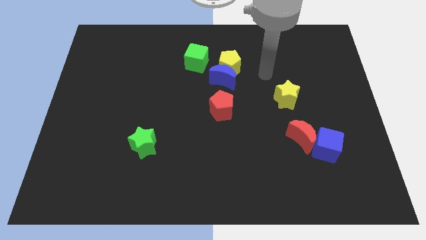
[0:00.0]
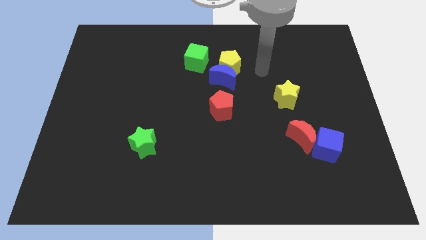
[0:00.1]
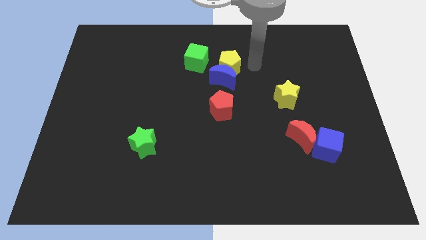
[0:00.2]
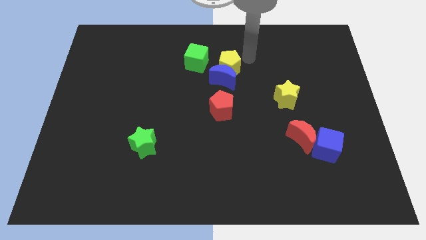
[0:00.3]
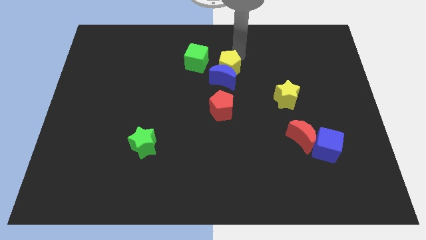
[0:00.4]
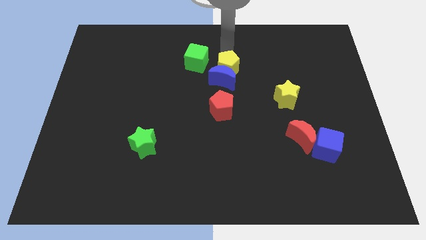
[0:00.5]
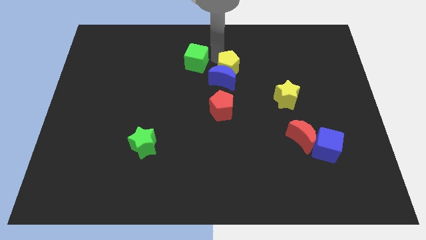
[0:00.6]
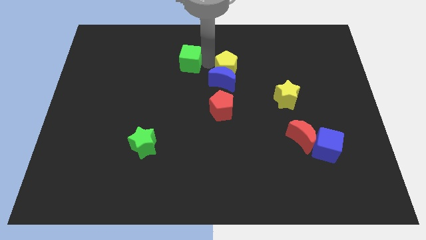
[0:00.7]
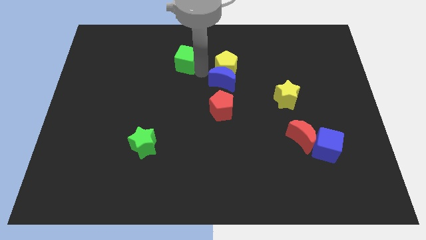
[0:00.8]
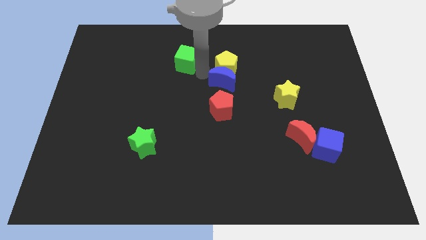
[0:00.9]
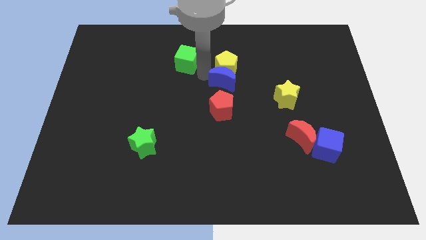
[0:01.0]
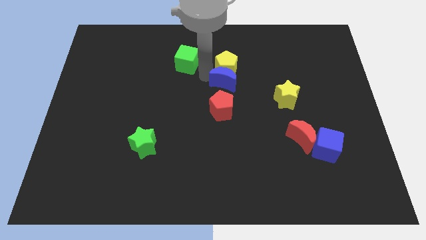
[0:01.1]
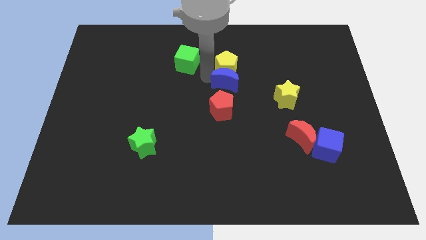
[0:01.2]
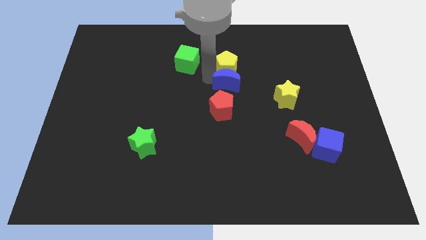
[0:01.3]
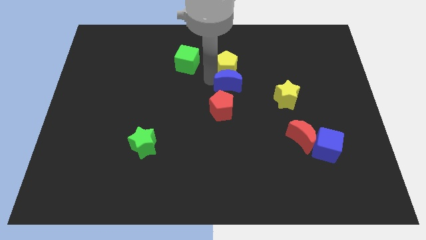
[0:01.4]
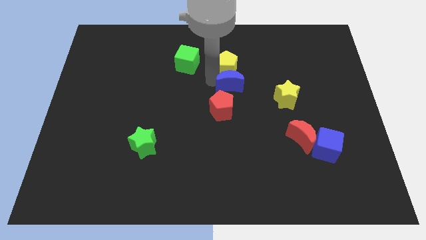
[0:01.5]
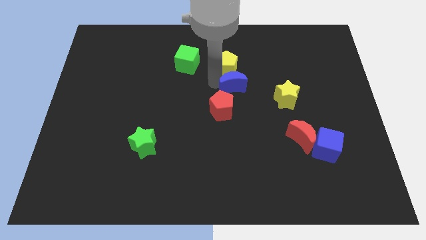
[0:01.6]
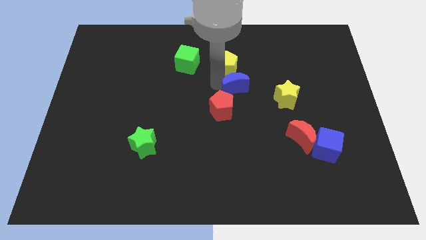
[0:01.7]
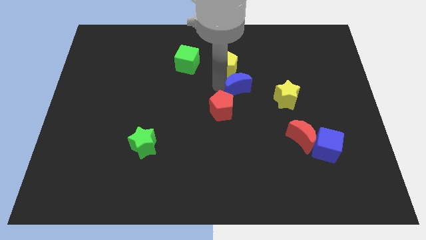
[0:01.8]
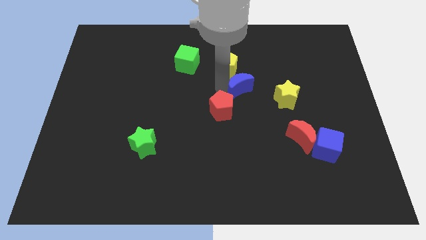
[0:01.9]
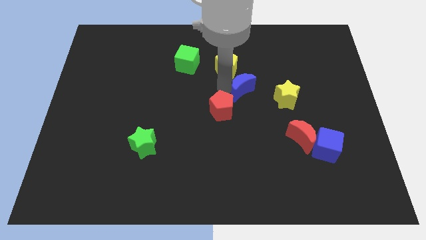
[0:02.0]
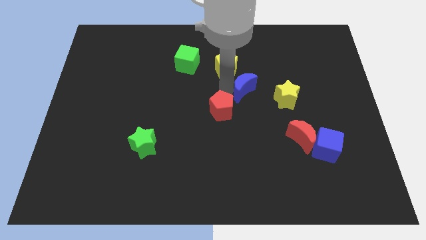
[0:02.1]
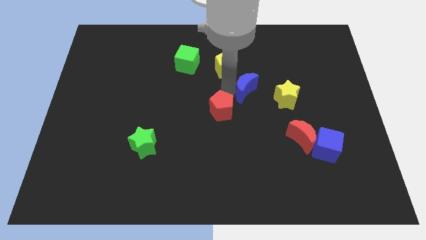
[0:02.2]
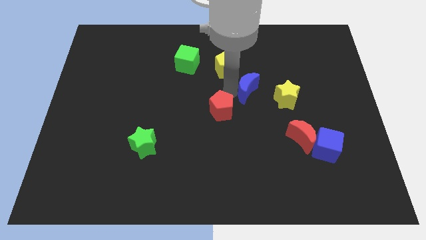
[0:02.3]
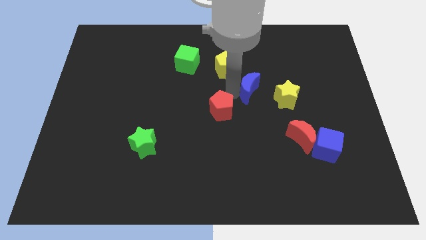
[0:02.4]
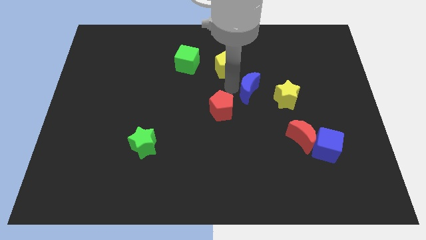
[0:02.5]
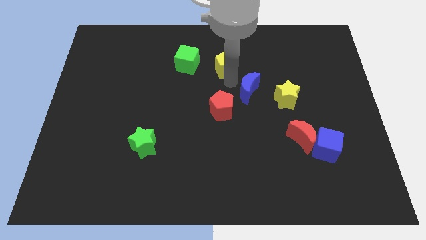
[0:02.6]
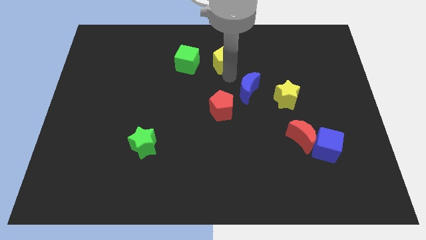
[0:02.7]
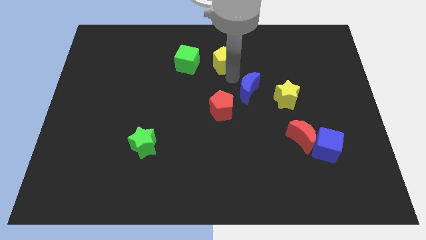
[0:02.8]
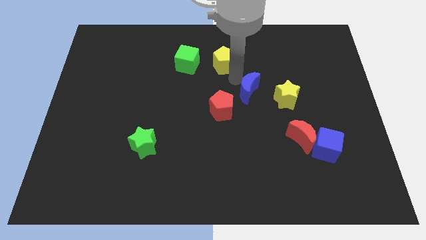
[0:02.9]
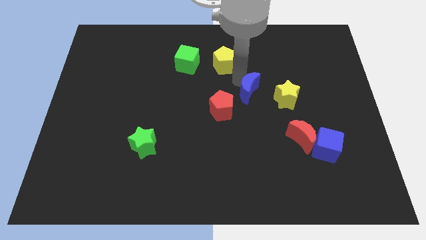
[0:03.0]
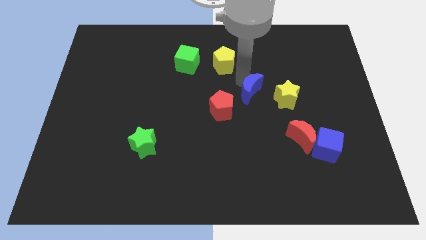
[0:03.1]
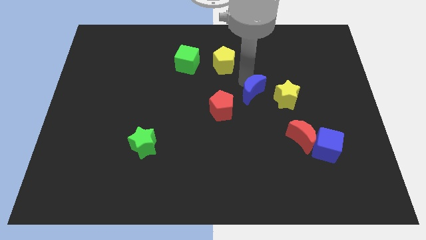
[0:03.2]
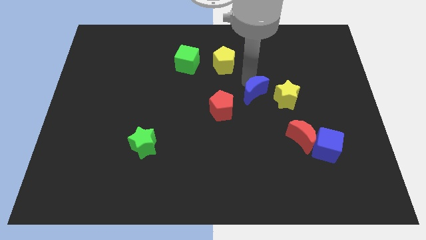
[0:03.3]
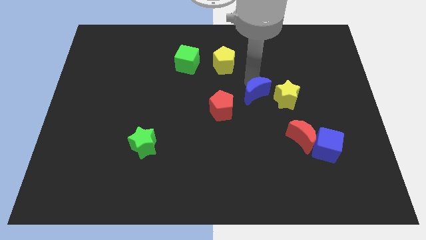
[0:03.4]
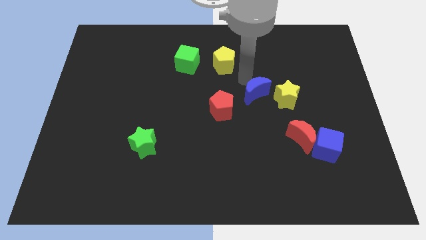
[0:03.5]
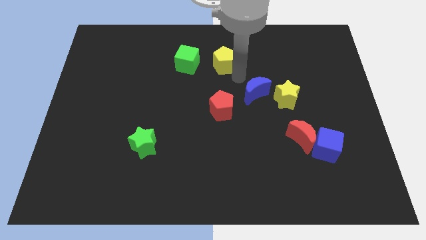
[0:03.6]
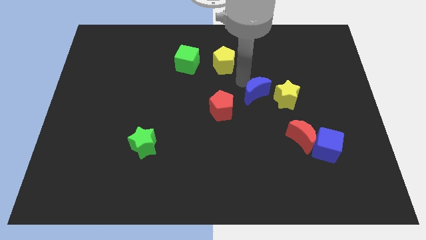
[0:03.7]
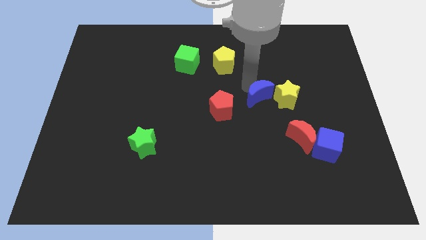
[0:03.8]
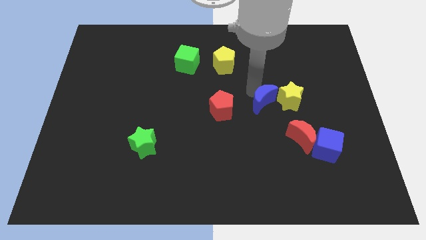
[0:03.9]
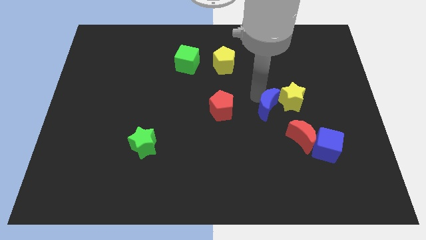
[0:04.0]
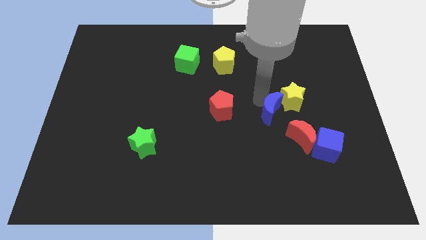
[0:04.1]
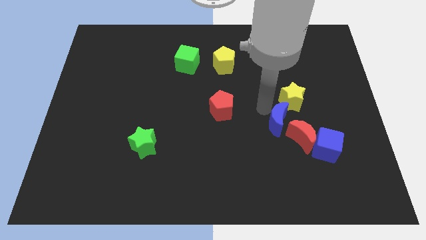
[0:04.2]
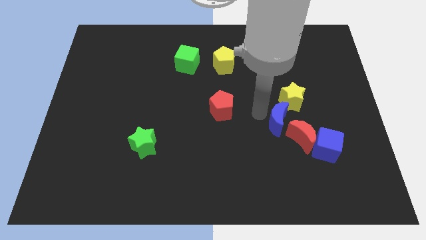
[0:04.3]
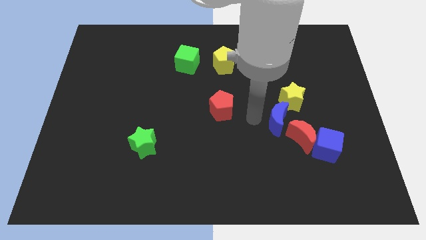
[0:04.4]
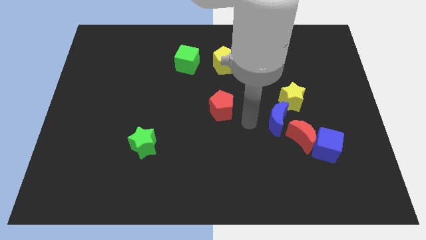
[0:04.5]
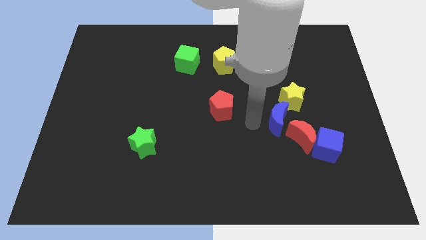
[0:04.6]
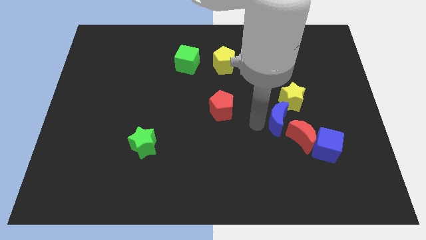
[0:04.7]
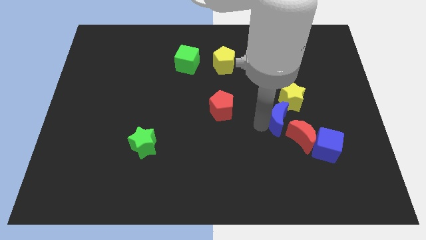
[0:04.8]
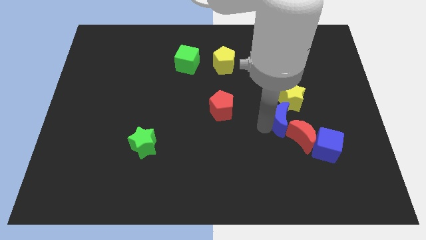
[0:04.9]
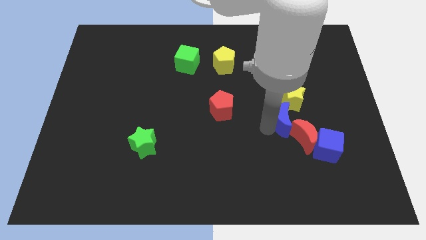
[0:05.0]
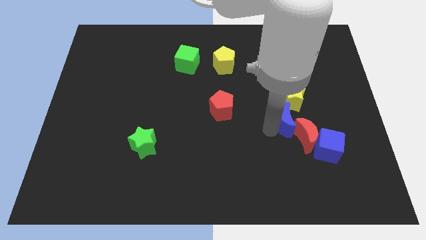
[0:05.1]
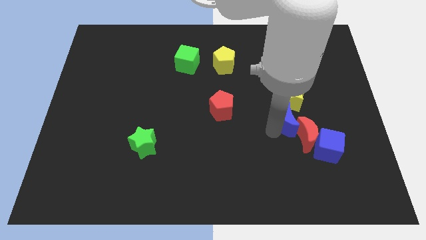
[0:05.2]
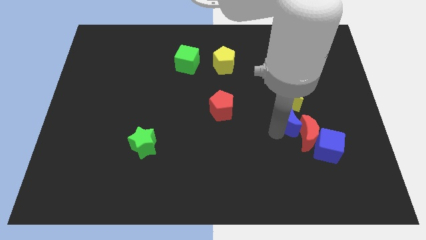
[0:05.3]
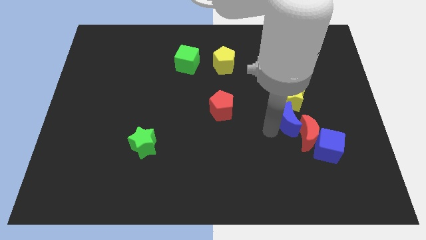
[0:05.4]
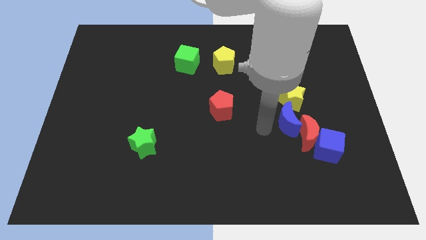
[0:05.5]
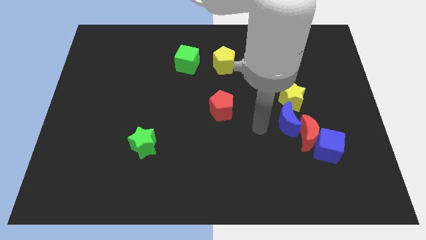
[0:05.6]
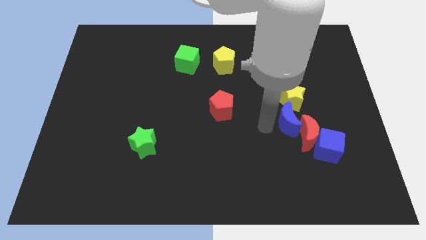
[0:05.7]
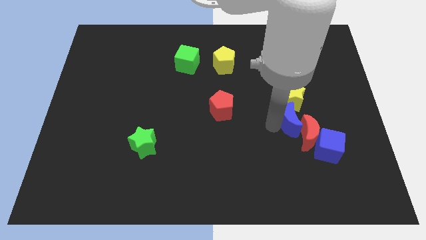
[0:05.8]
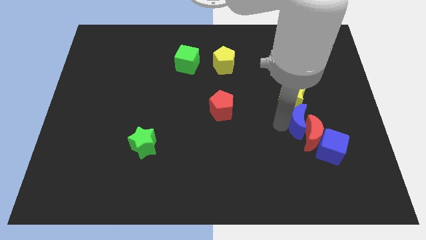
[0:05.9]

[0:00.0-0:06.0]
move the blue moon to the bottom right side of the yellow star

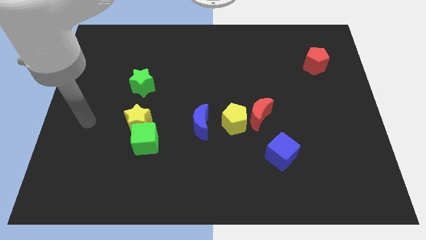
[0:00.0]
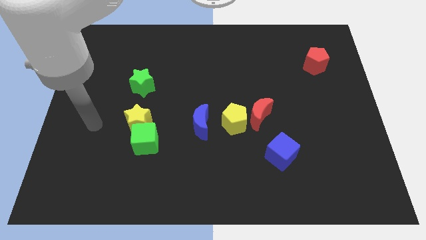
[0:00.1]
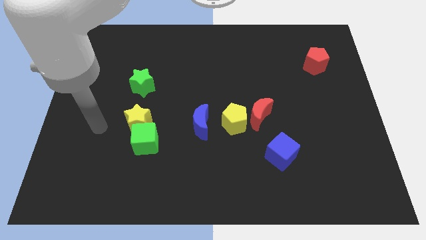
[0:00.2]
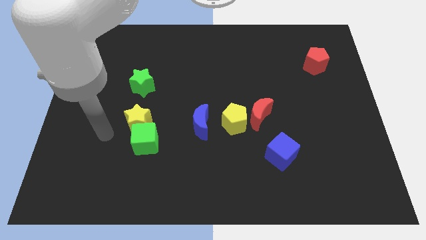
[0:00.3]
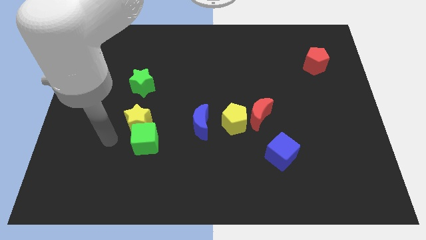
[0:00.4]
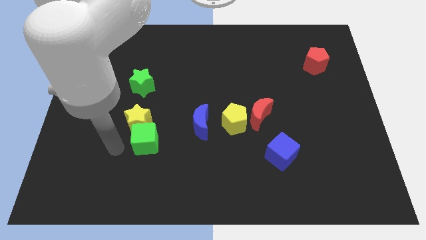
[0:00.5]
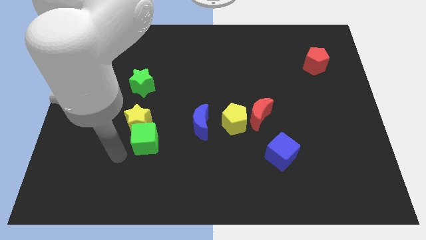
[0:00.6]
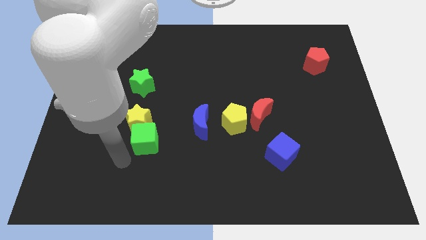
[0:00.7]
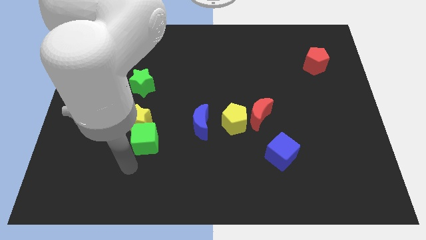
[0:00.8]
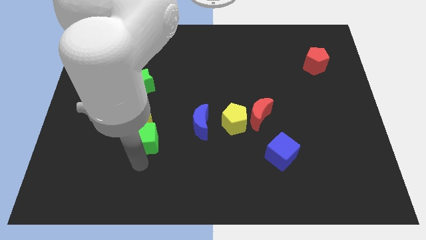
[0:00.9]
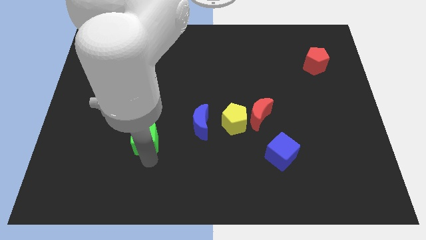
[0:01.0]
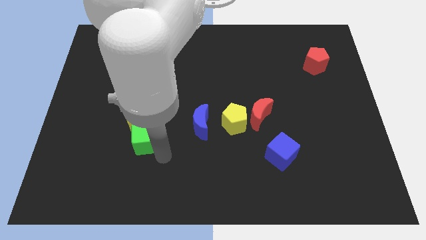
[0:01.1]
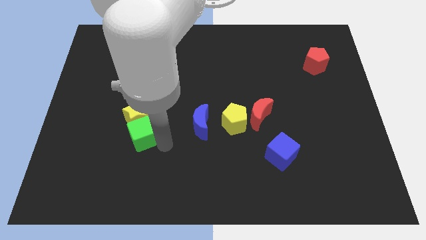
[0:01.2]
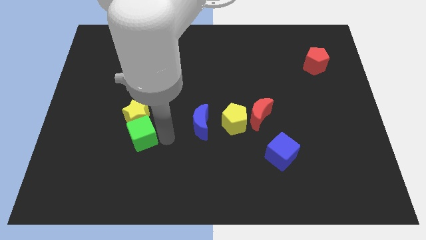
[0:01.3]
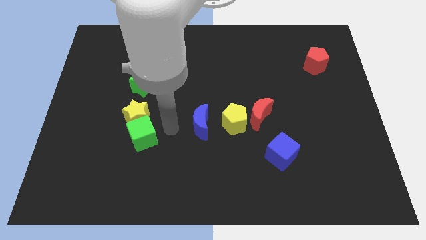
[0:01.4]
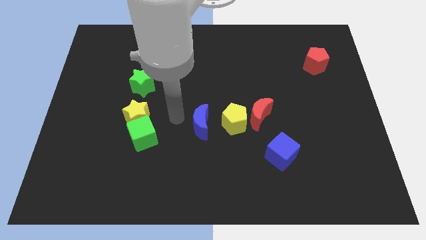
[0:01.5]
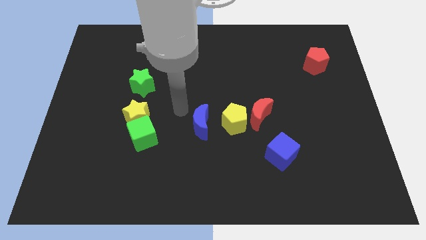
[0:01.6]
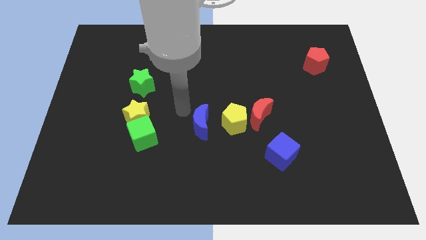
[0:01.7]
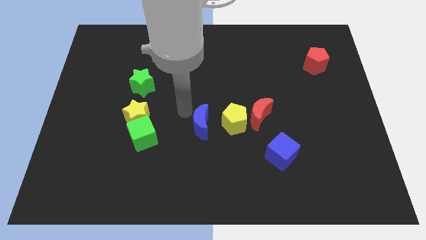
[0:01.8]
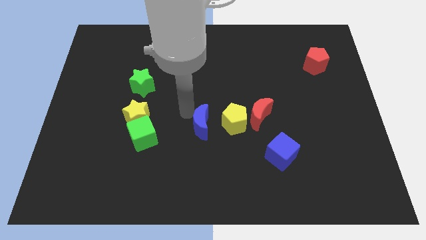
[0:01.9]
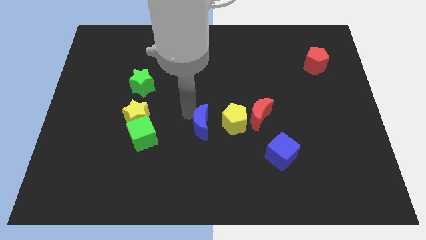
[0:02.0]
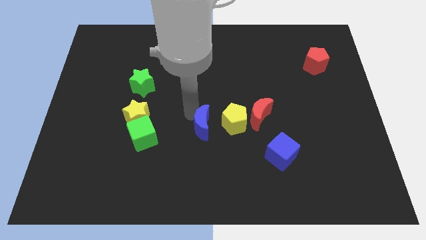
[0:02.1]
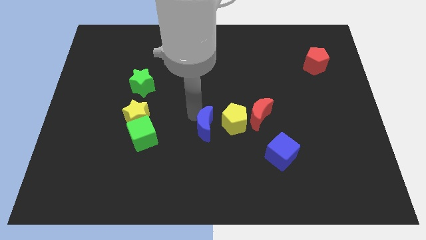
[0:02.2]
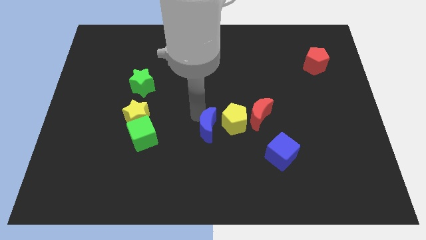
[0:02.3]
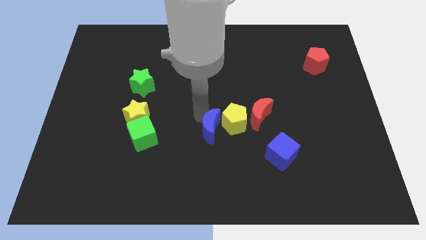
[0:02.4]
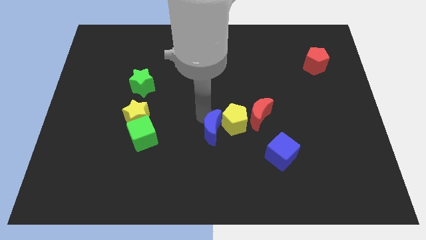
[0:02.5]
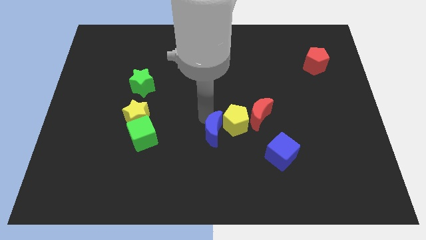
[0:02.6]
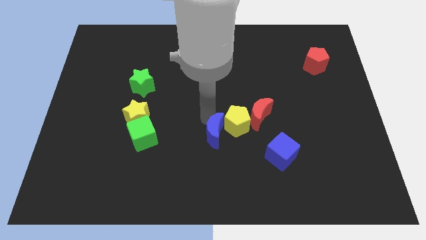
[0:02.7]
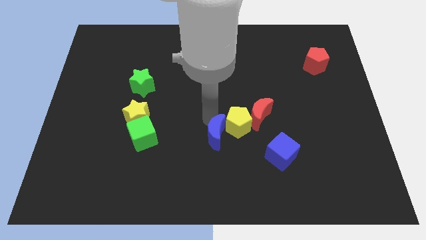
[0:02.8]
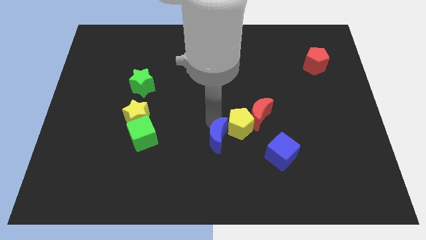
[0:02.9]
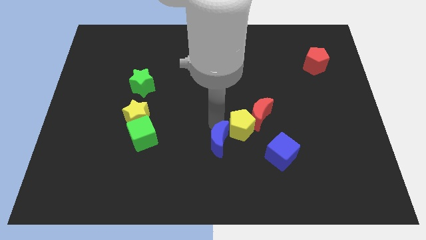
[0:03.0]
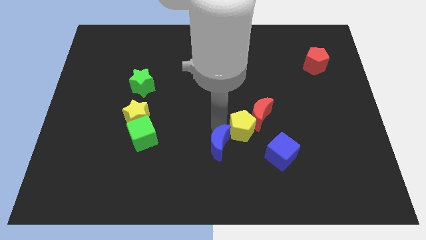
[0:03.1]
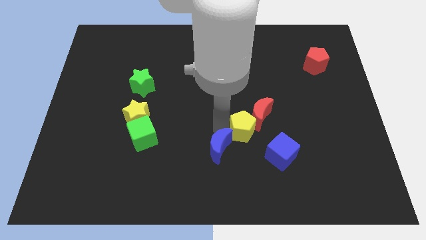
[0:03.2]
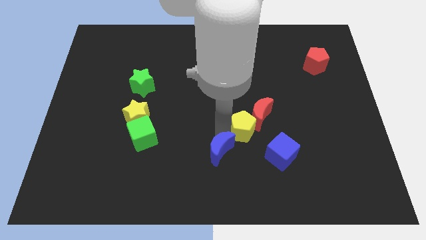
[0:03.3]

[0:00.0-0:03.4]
slide the blue moon below the yellow pentagon
